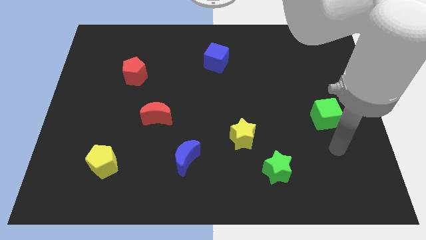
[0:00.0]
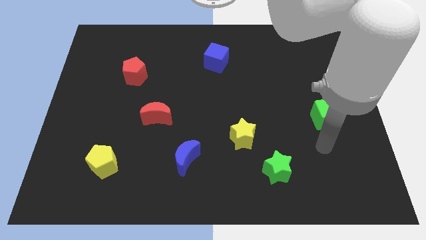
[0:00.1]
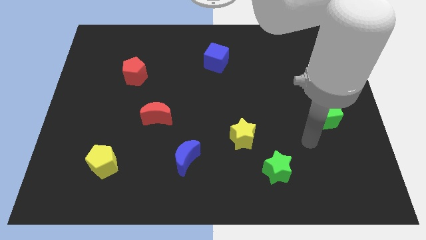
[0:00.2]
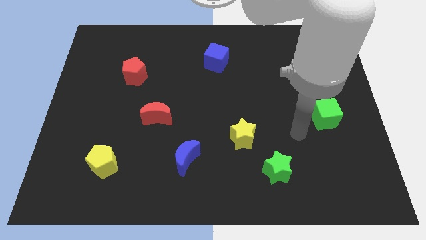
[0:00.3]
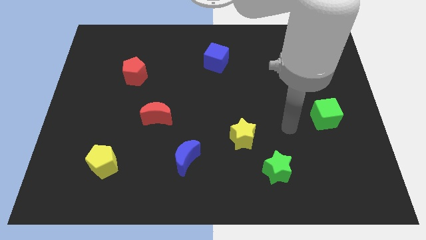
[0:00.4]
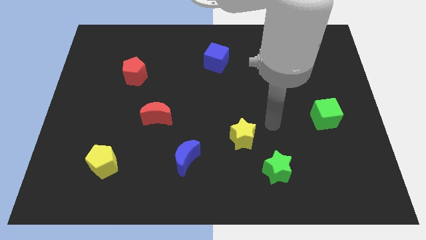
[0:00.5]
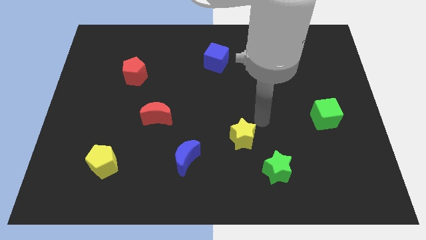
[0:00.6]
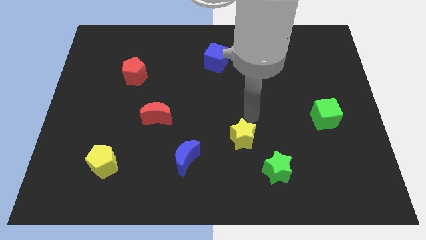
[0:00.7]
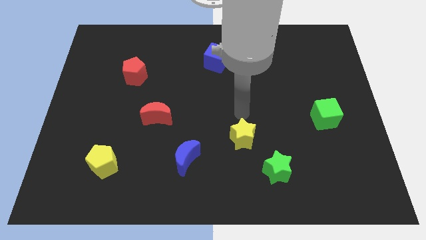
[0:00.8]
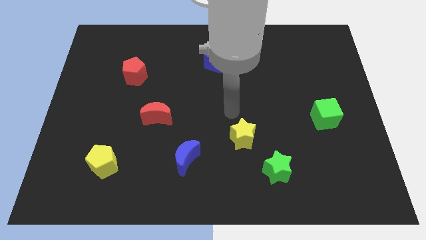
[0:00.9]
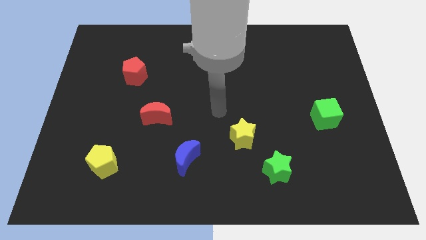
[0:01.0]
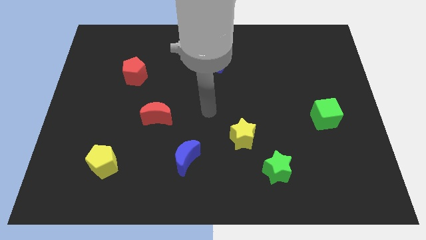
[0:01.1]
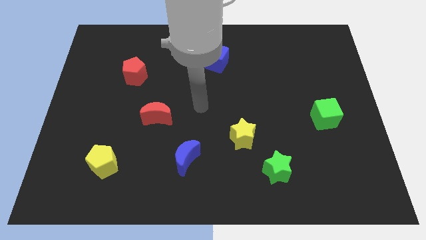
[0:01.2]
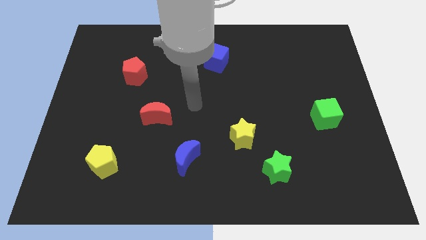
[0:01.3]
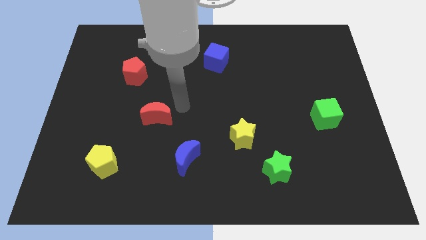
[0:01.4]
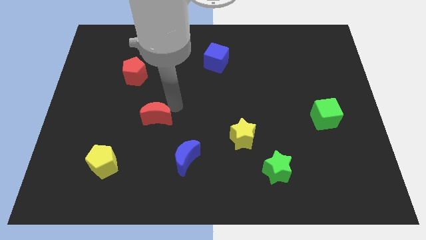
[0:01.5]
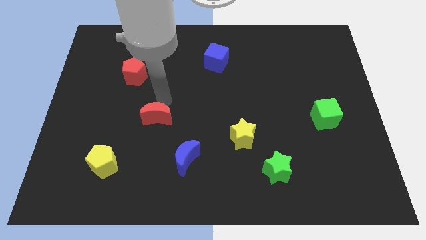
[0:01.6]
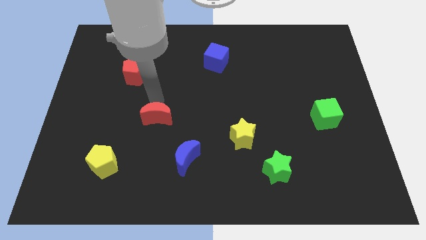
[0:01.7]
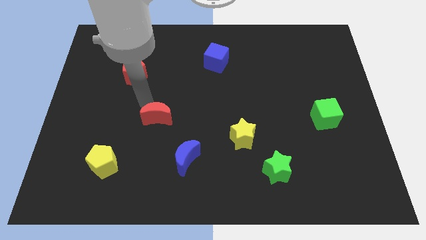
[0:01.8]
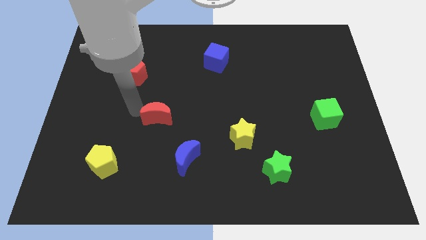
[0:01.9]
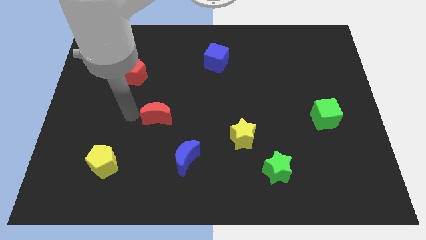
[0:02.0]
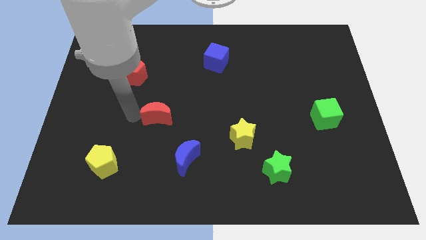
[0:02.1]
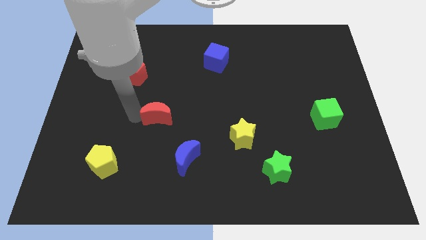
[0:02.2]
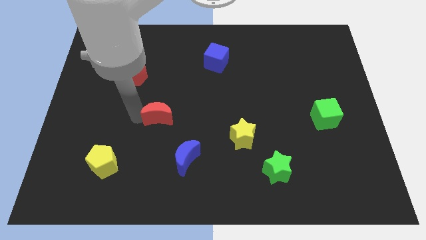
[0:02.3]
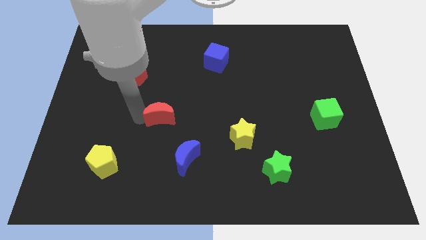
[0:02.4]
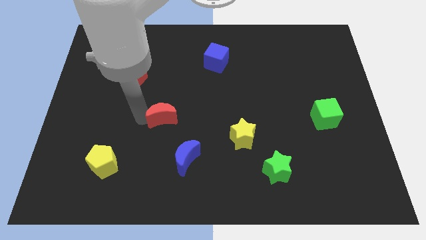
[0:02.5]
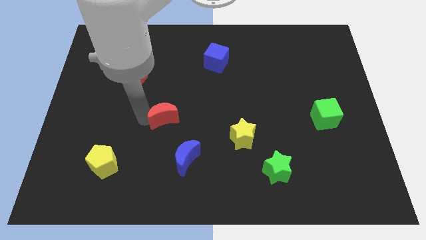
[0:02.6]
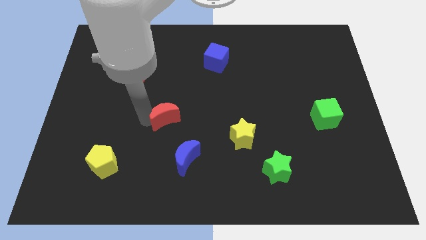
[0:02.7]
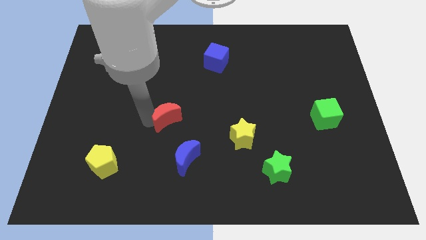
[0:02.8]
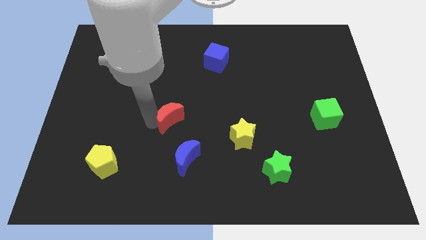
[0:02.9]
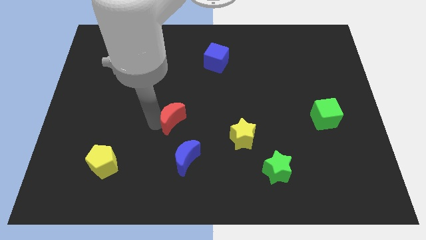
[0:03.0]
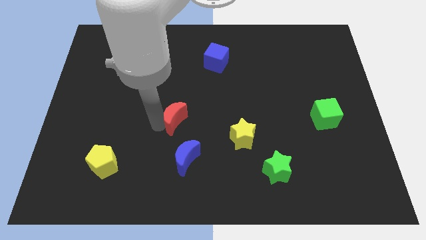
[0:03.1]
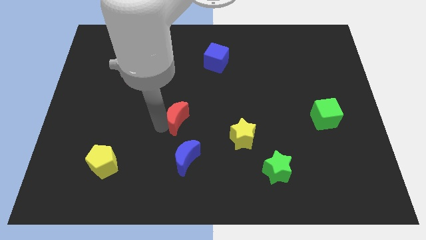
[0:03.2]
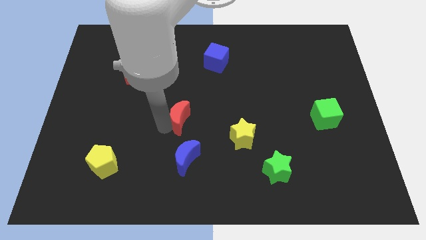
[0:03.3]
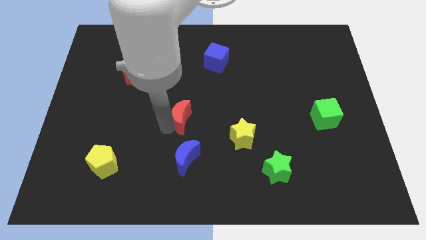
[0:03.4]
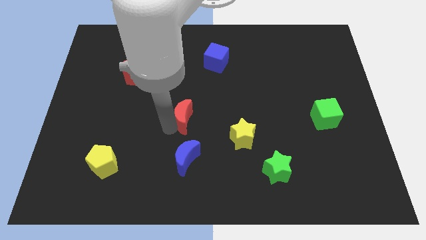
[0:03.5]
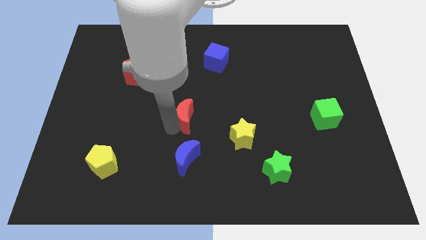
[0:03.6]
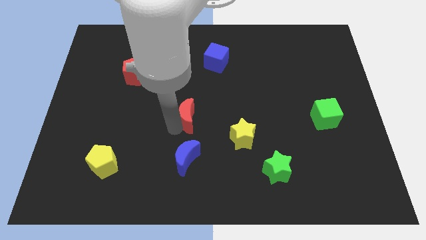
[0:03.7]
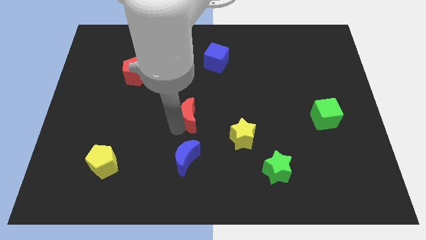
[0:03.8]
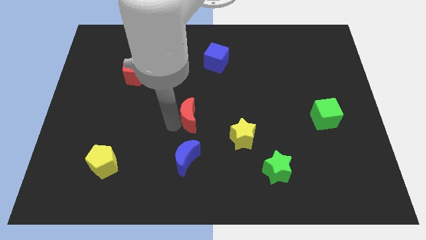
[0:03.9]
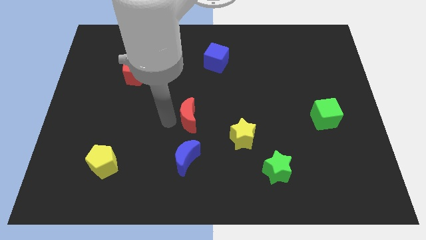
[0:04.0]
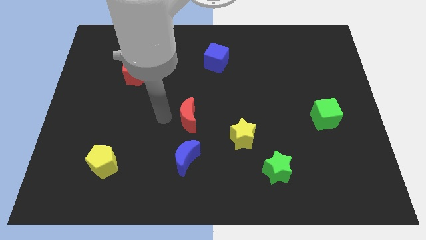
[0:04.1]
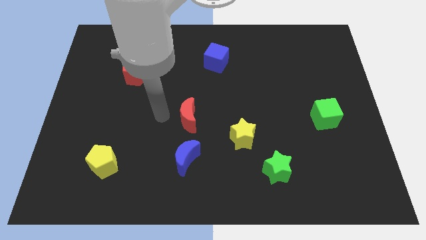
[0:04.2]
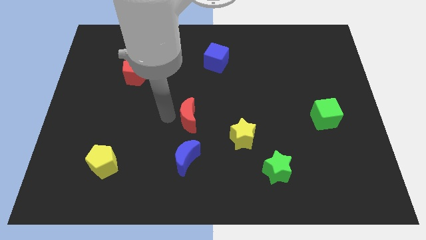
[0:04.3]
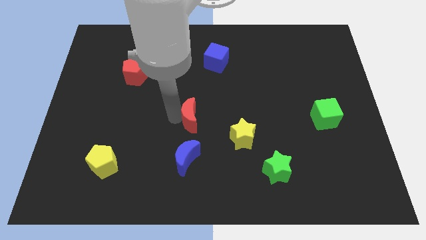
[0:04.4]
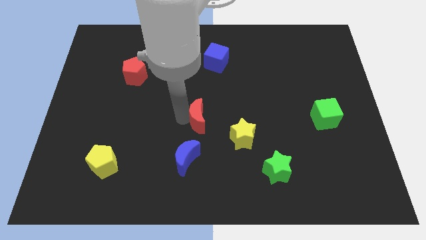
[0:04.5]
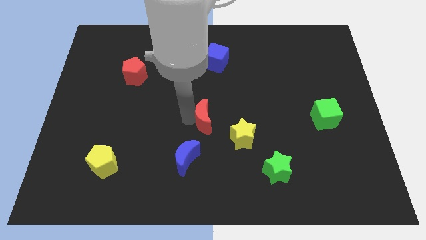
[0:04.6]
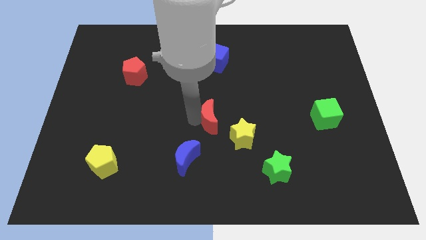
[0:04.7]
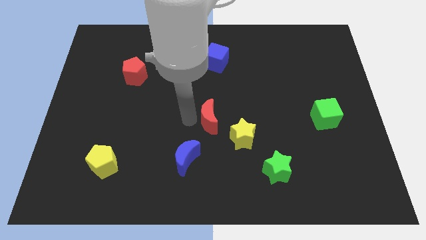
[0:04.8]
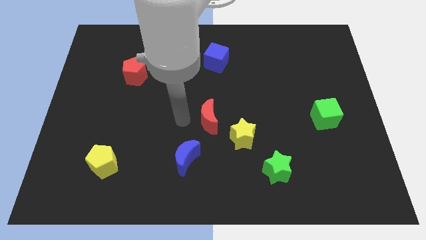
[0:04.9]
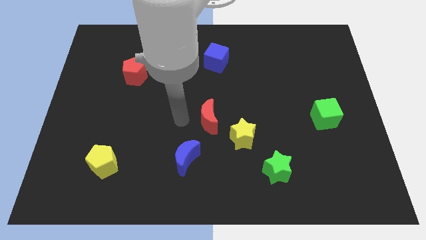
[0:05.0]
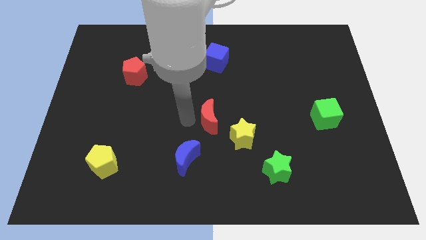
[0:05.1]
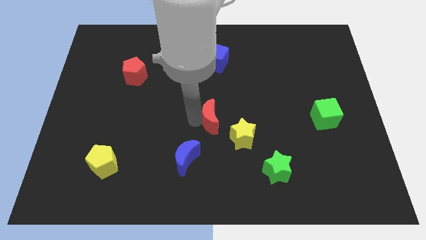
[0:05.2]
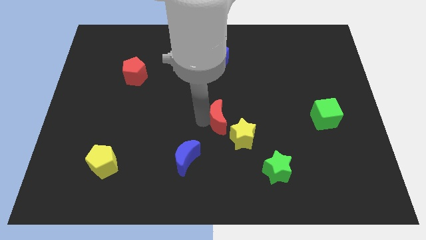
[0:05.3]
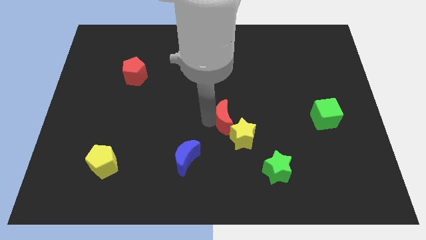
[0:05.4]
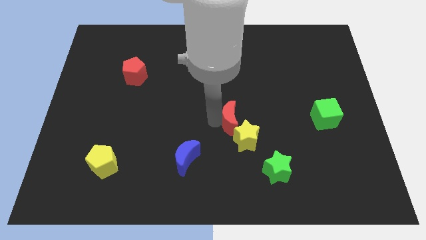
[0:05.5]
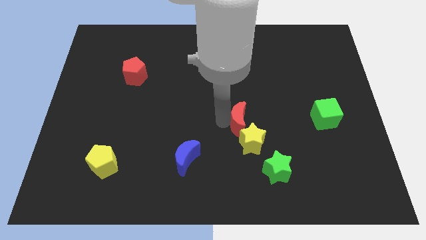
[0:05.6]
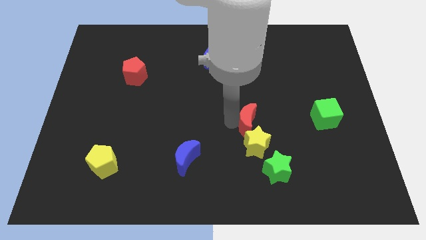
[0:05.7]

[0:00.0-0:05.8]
move the red moon right

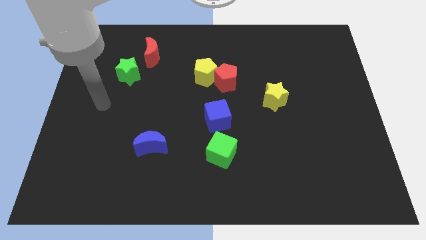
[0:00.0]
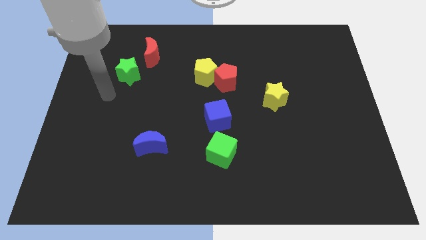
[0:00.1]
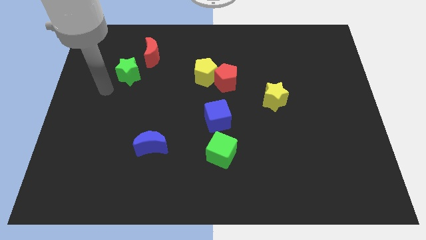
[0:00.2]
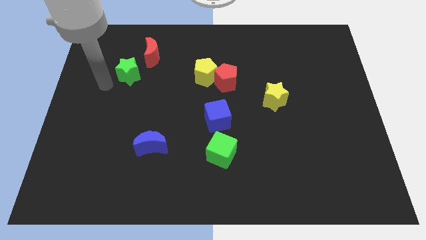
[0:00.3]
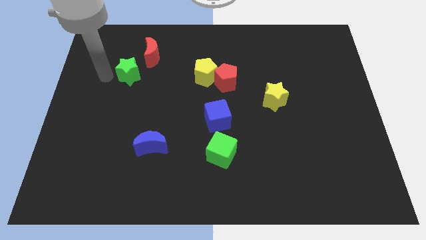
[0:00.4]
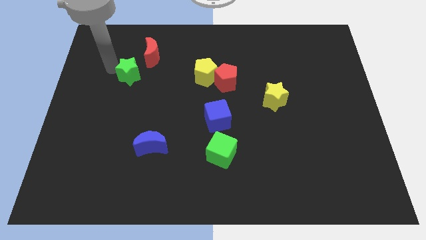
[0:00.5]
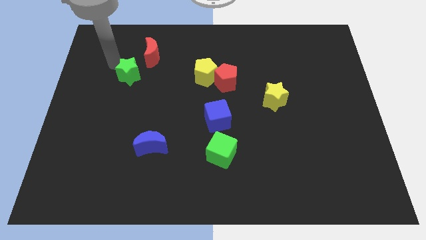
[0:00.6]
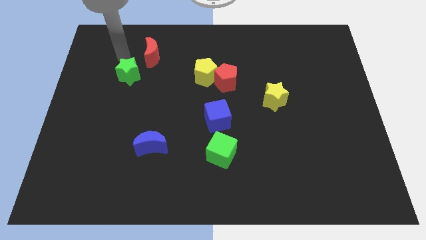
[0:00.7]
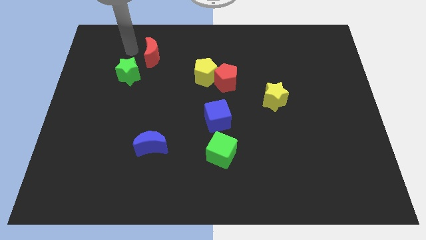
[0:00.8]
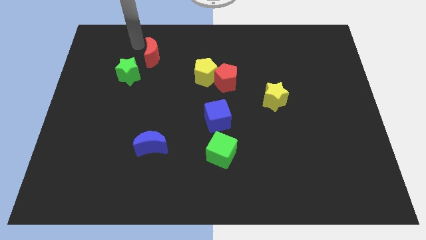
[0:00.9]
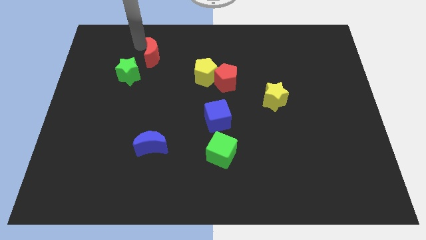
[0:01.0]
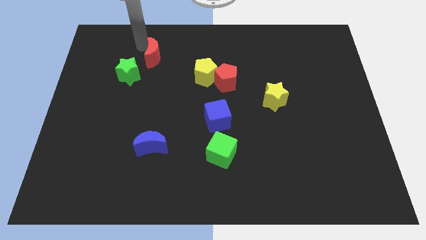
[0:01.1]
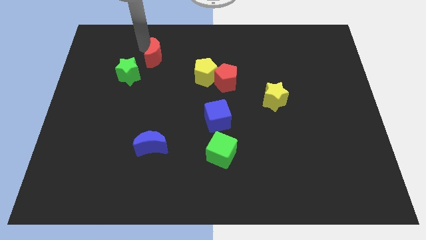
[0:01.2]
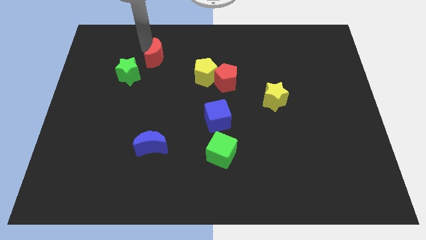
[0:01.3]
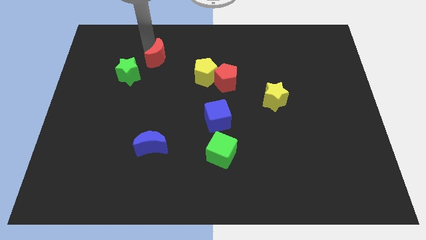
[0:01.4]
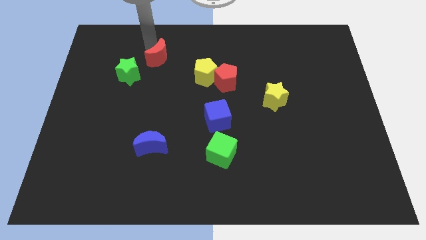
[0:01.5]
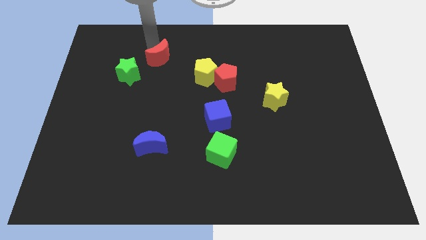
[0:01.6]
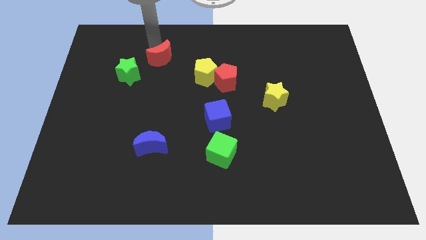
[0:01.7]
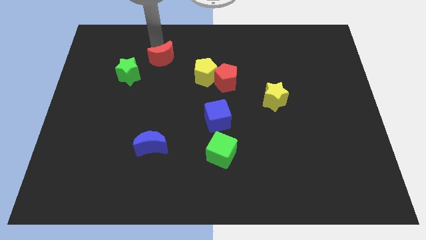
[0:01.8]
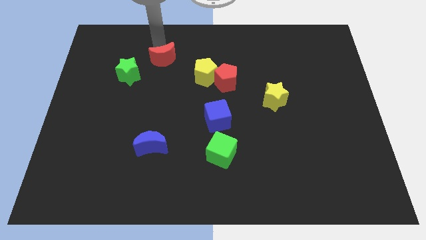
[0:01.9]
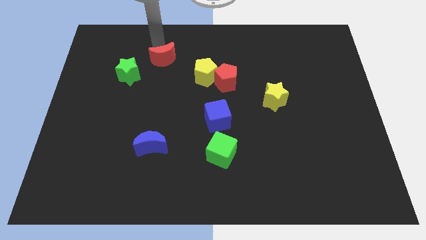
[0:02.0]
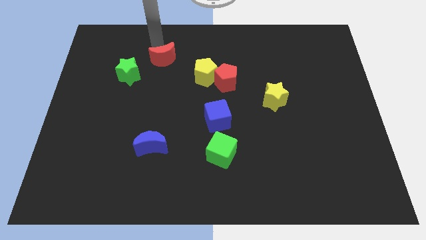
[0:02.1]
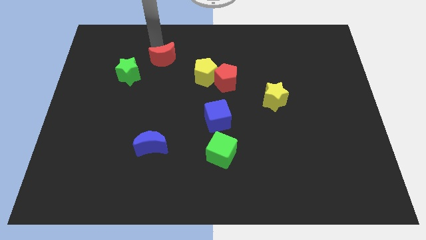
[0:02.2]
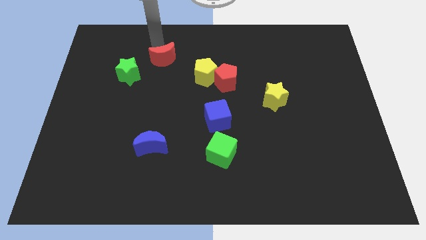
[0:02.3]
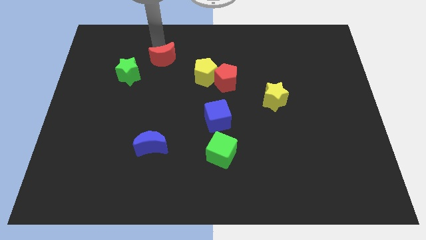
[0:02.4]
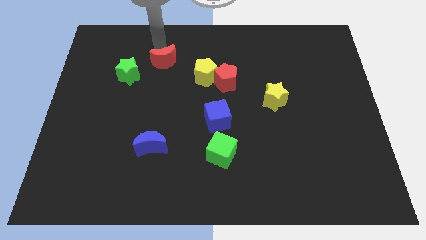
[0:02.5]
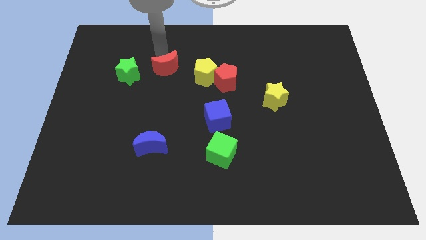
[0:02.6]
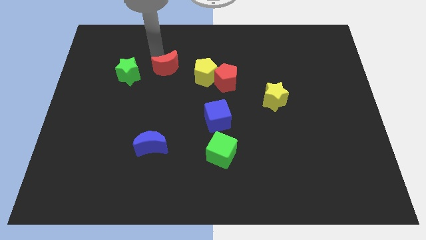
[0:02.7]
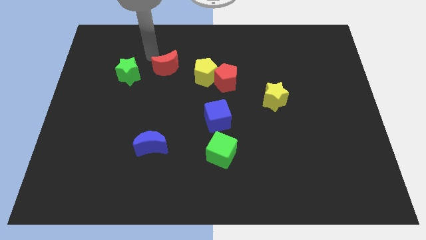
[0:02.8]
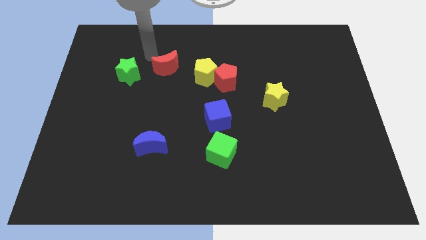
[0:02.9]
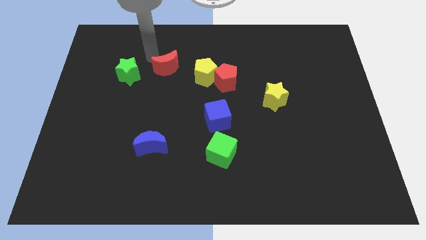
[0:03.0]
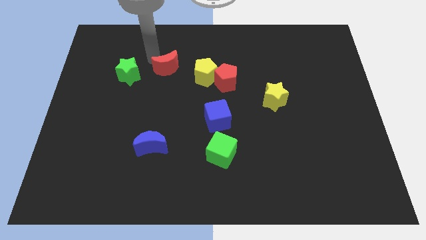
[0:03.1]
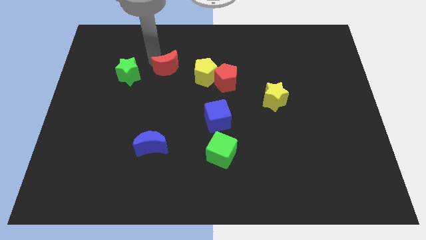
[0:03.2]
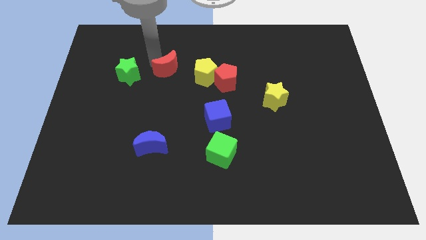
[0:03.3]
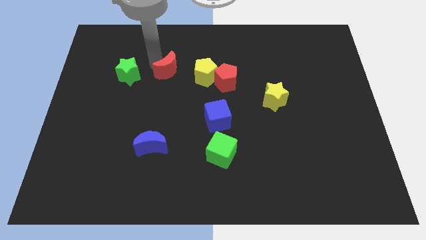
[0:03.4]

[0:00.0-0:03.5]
slightly slide the red moon down and to the right
